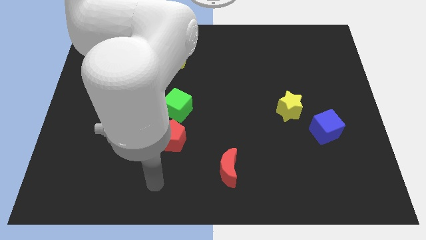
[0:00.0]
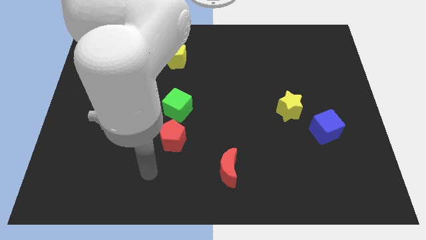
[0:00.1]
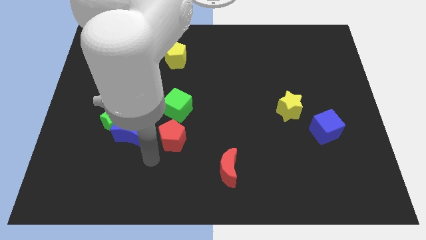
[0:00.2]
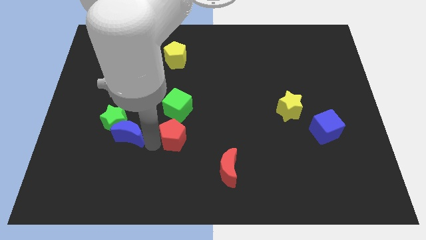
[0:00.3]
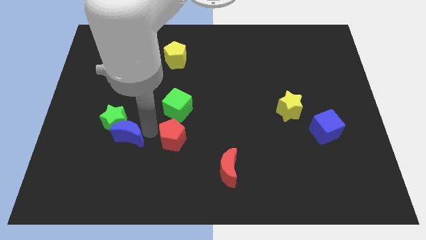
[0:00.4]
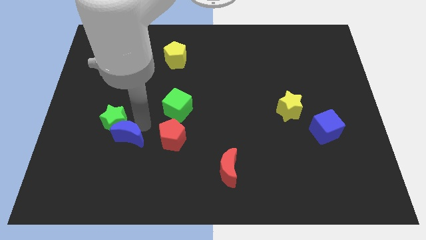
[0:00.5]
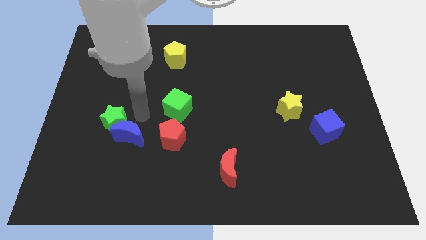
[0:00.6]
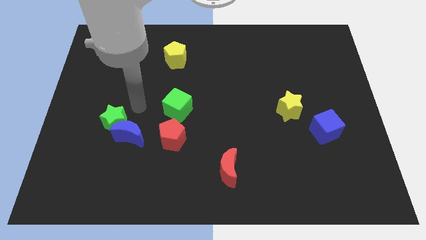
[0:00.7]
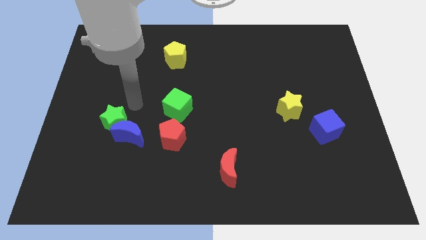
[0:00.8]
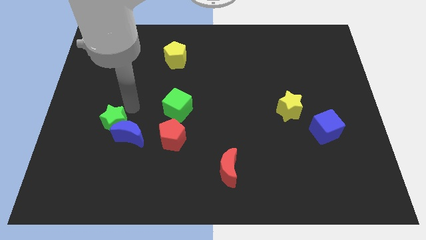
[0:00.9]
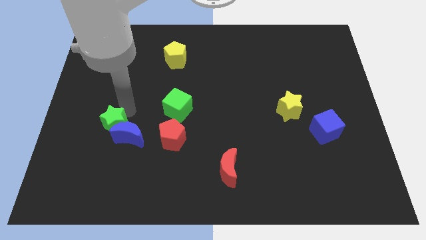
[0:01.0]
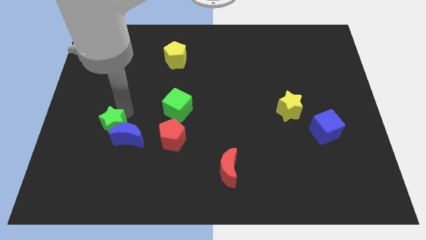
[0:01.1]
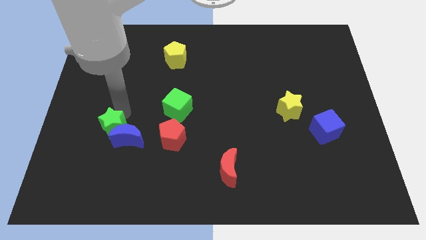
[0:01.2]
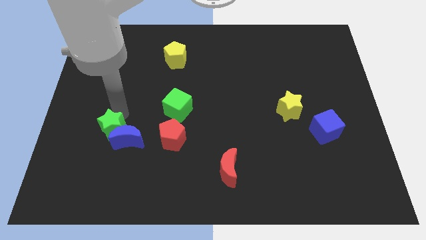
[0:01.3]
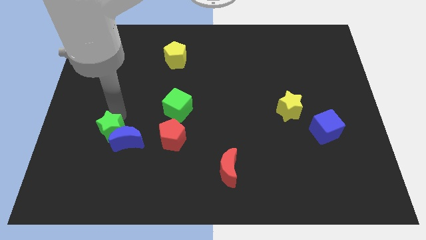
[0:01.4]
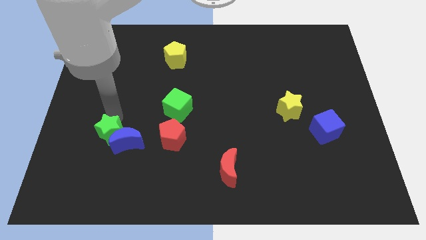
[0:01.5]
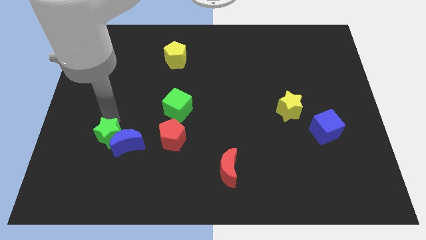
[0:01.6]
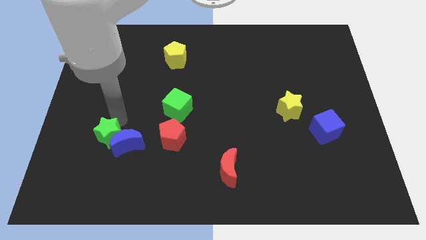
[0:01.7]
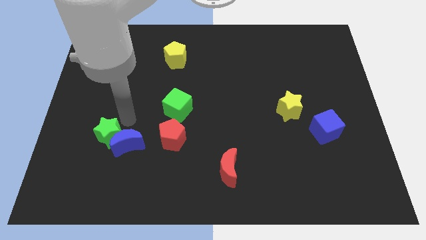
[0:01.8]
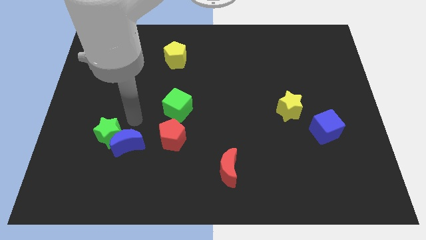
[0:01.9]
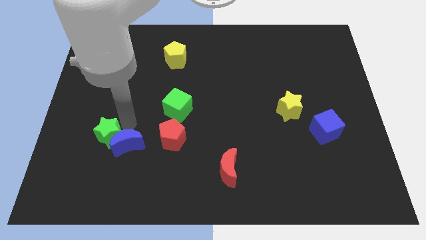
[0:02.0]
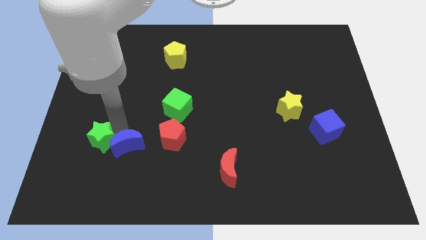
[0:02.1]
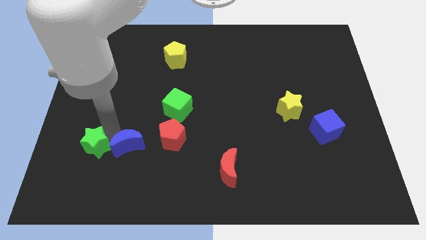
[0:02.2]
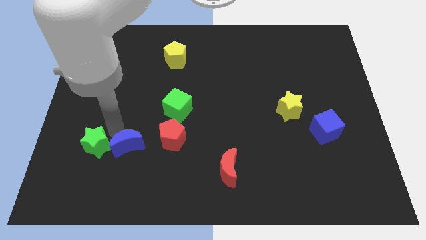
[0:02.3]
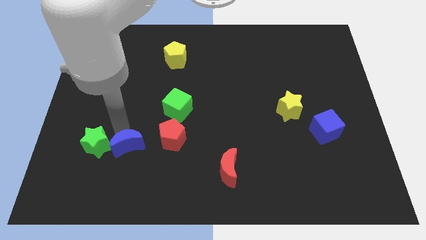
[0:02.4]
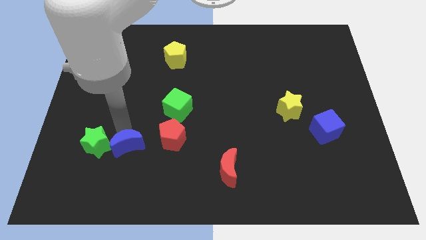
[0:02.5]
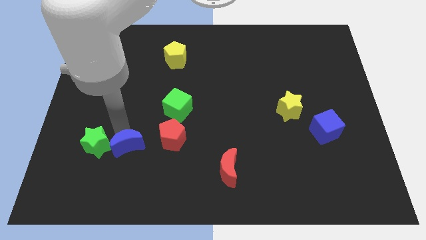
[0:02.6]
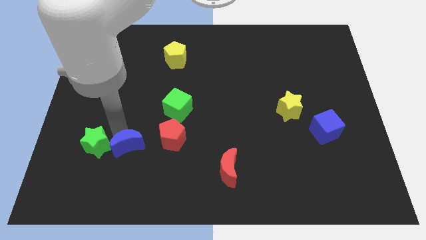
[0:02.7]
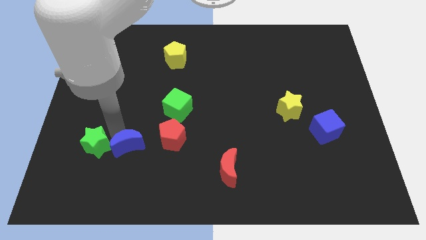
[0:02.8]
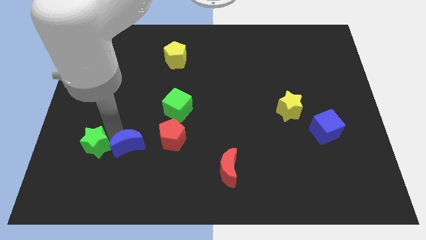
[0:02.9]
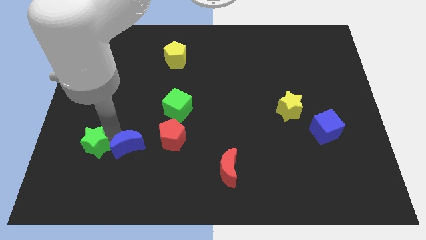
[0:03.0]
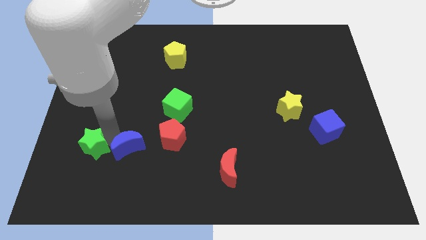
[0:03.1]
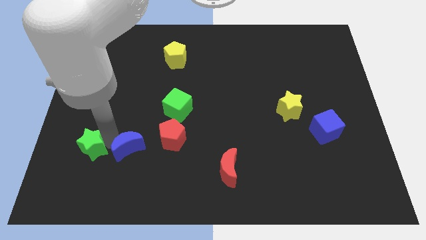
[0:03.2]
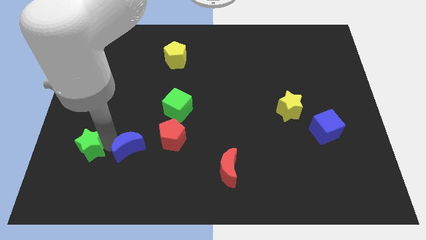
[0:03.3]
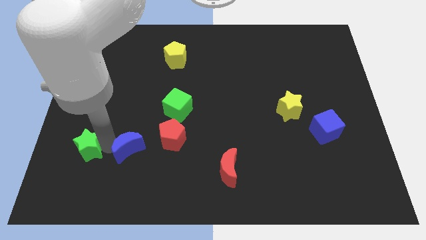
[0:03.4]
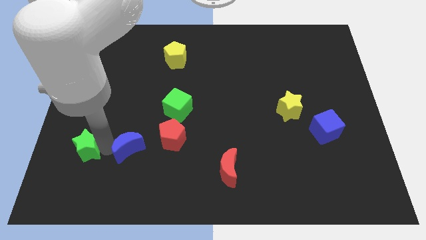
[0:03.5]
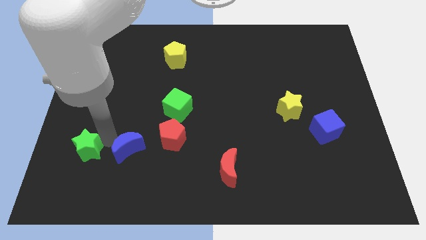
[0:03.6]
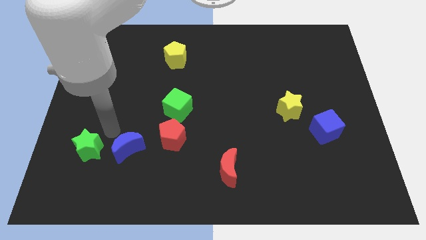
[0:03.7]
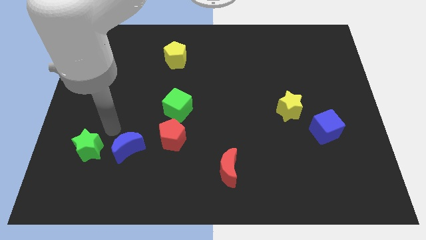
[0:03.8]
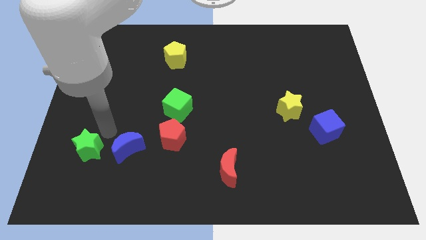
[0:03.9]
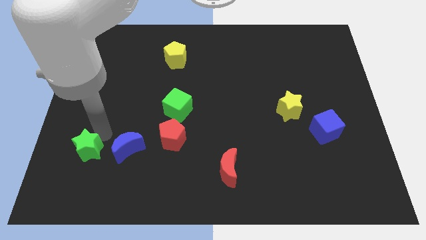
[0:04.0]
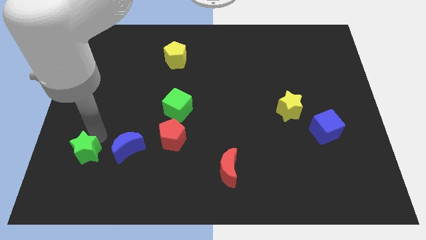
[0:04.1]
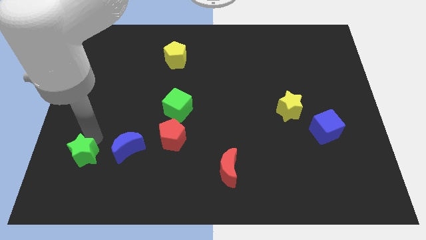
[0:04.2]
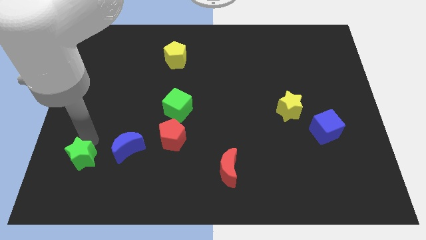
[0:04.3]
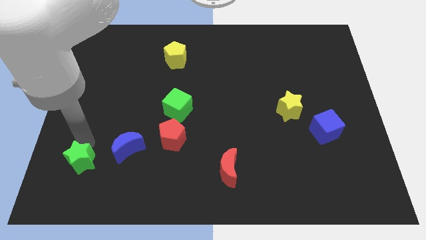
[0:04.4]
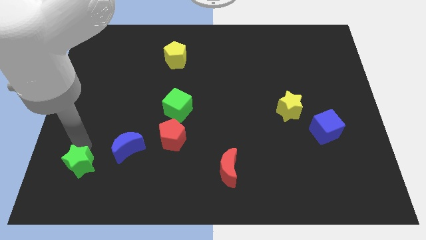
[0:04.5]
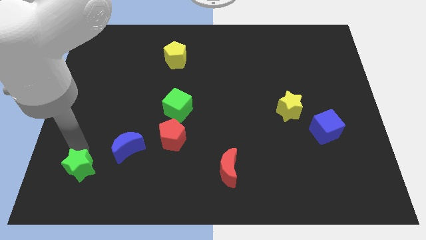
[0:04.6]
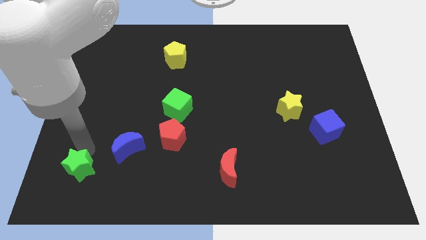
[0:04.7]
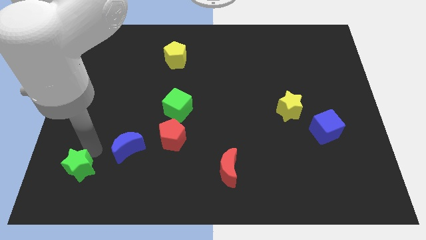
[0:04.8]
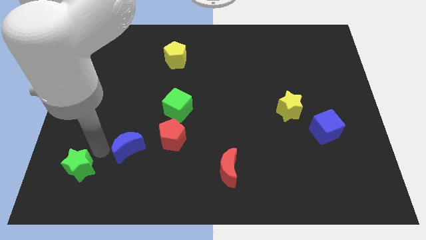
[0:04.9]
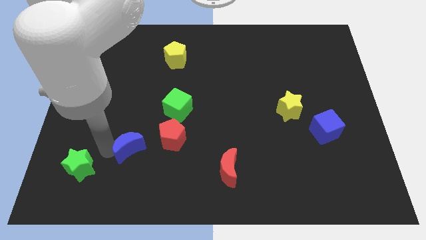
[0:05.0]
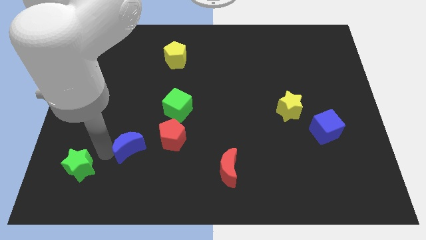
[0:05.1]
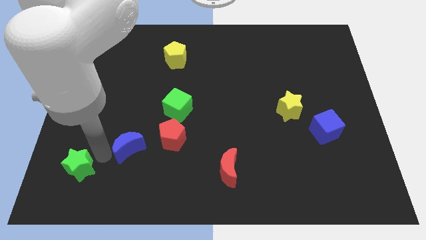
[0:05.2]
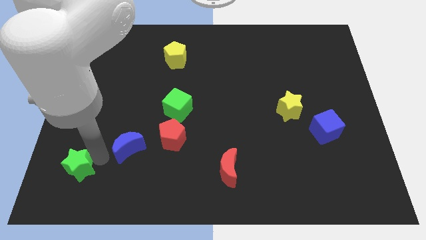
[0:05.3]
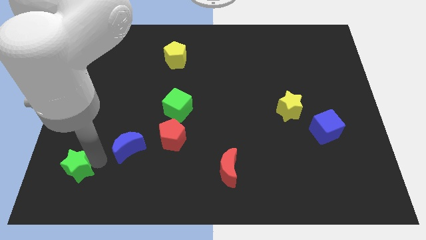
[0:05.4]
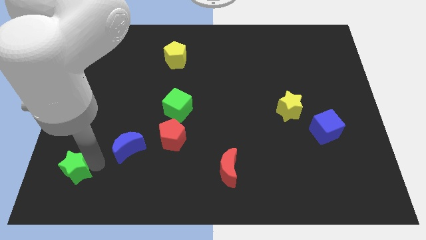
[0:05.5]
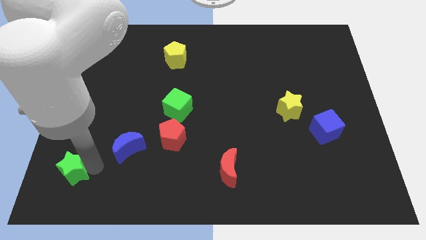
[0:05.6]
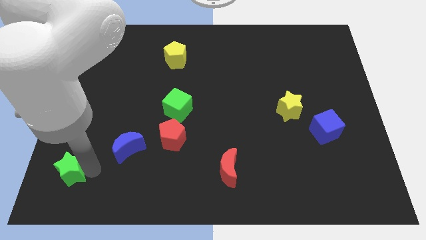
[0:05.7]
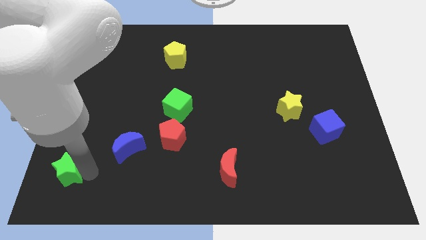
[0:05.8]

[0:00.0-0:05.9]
slide the green star to the bottom left

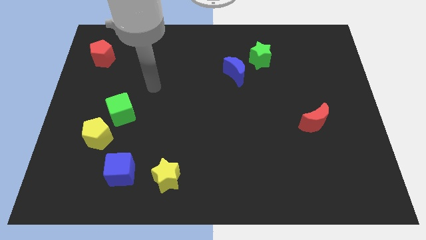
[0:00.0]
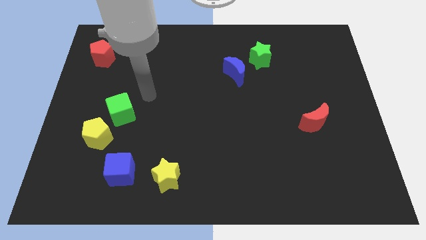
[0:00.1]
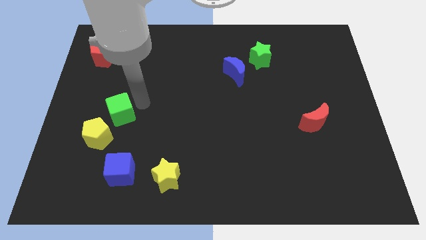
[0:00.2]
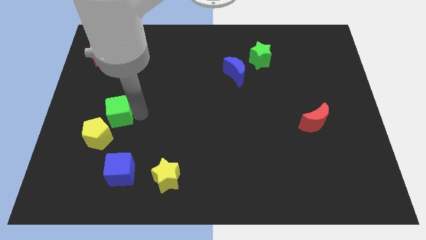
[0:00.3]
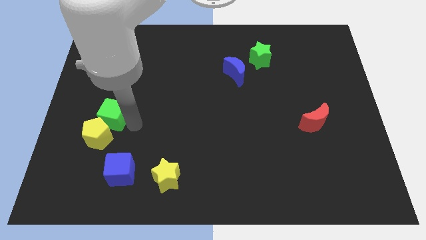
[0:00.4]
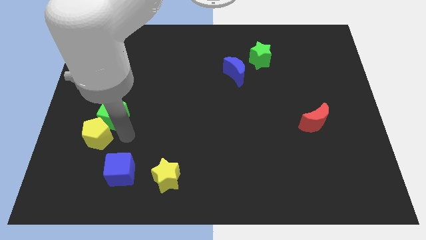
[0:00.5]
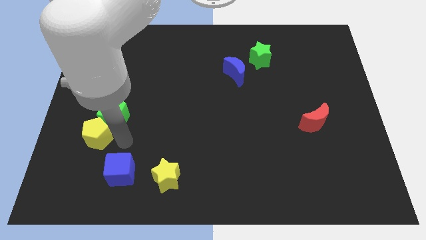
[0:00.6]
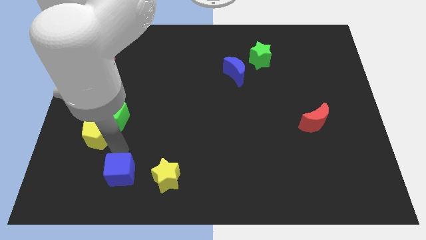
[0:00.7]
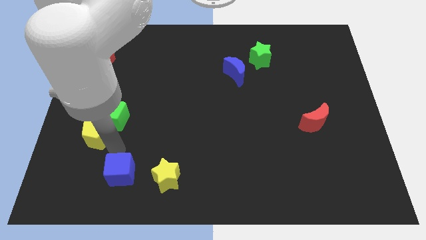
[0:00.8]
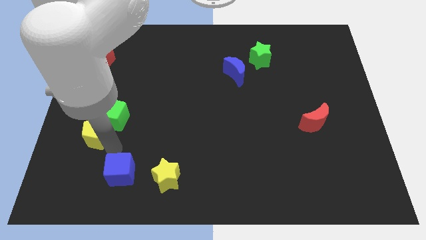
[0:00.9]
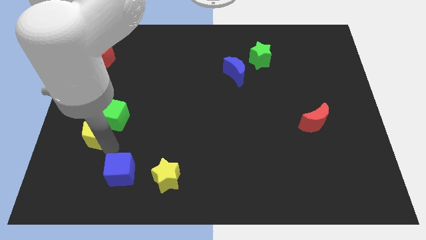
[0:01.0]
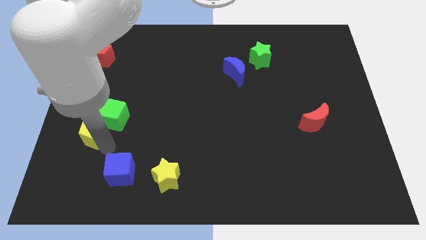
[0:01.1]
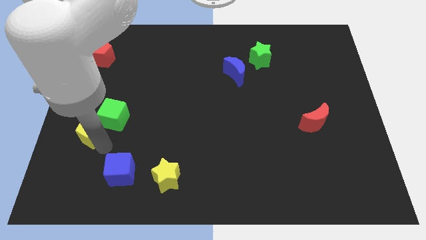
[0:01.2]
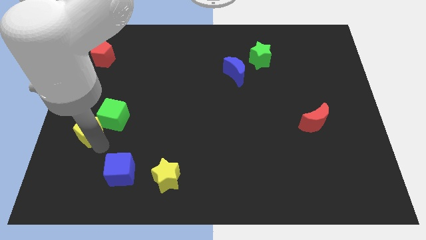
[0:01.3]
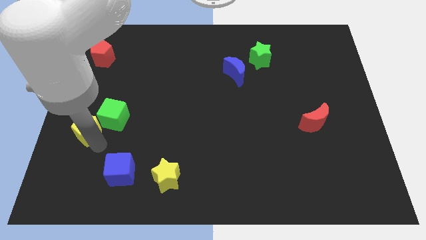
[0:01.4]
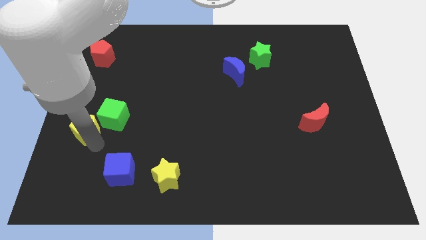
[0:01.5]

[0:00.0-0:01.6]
move the yellow pentagon to the left side of the board
